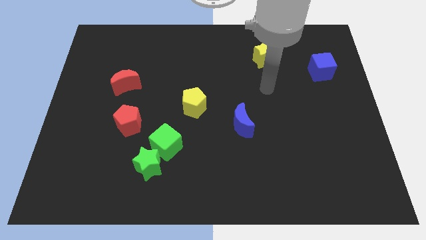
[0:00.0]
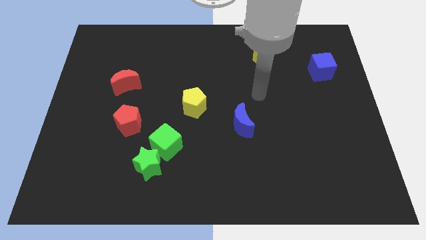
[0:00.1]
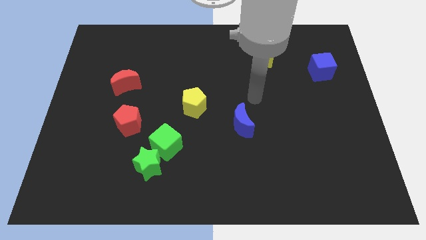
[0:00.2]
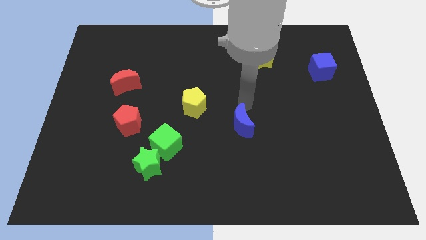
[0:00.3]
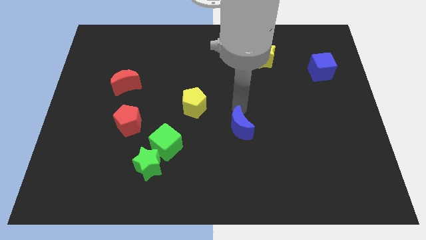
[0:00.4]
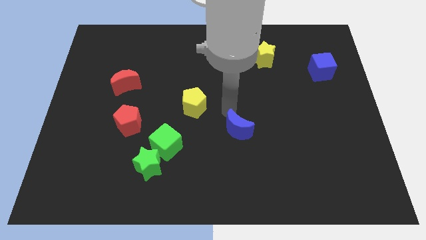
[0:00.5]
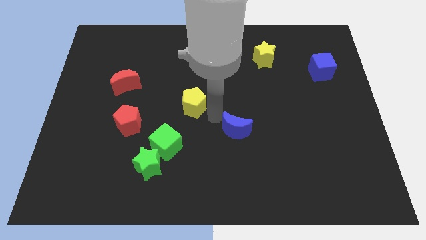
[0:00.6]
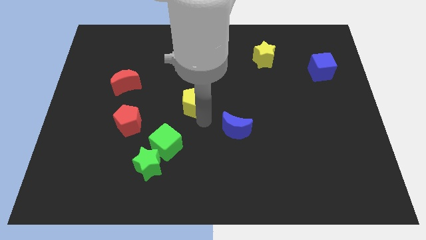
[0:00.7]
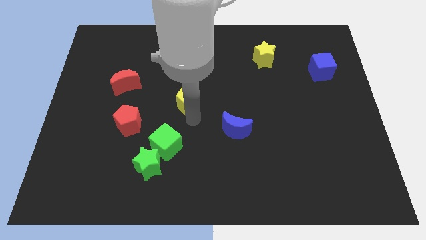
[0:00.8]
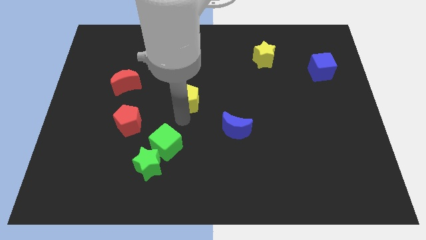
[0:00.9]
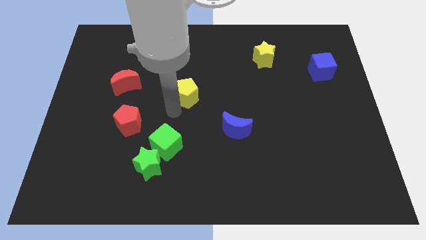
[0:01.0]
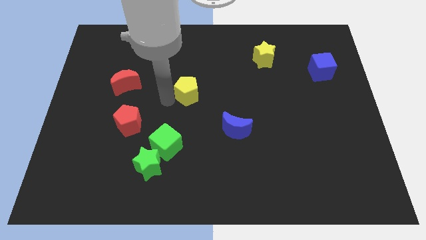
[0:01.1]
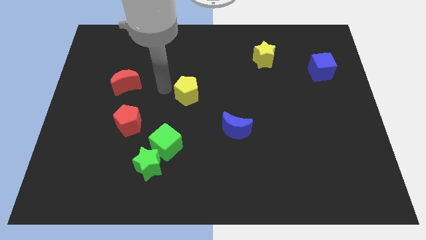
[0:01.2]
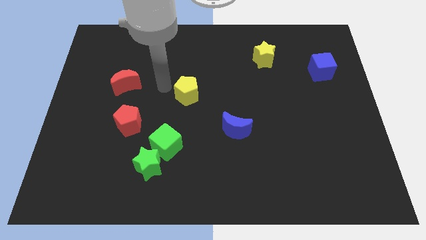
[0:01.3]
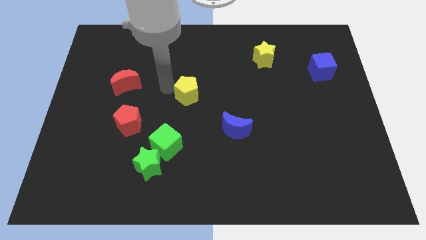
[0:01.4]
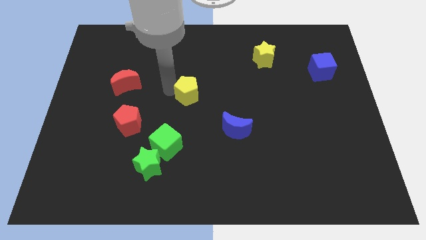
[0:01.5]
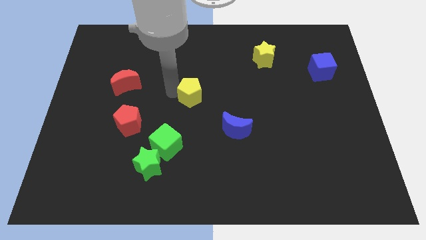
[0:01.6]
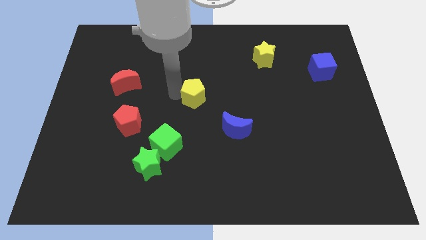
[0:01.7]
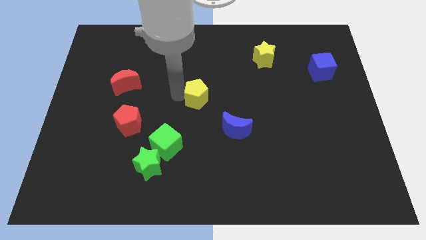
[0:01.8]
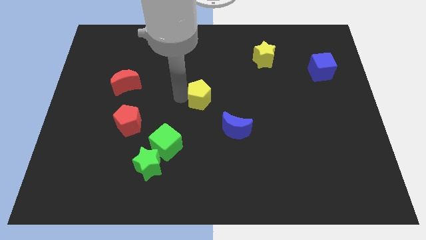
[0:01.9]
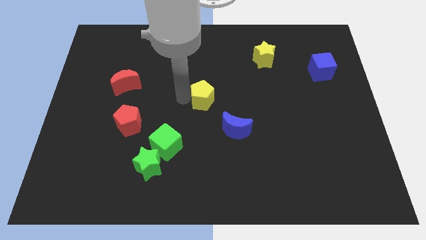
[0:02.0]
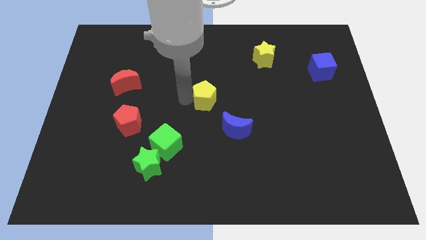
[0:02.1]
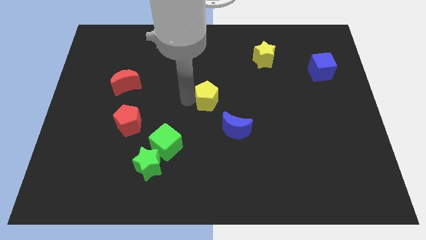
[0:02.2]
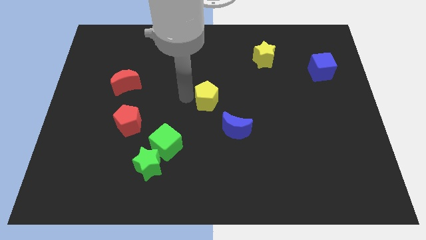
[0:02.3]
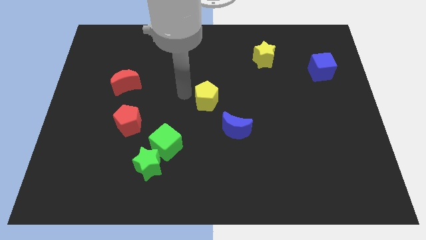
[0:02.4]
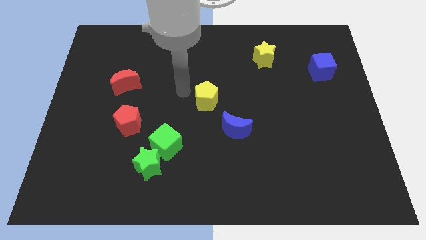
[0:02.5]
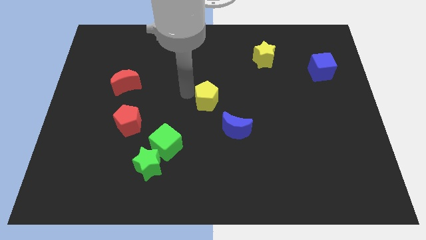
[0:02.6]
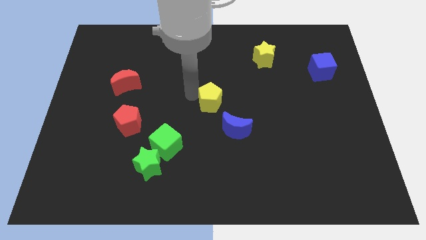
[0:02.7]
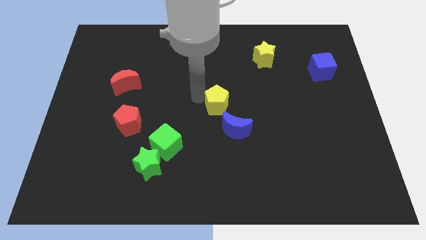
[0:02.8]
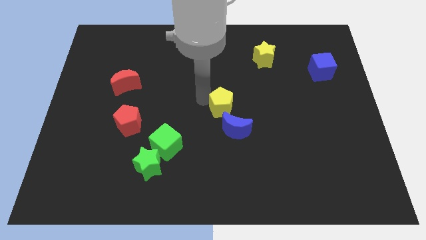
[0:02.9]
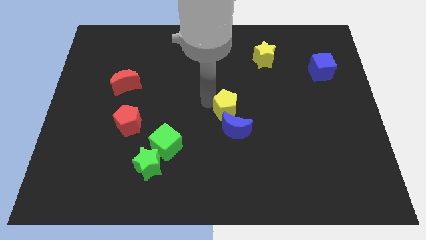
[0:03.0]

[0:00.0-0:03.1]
slide the yellow pentagon slightly right

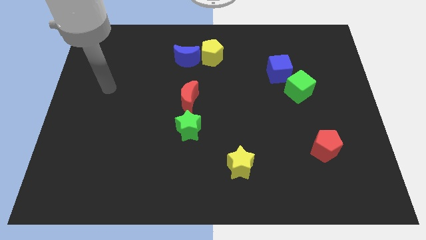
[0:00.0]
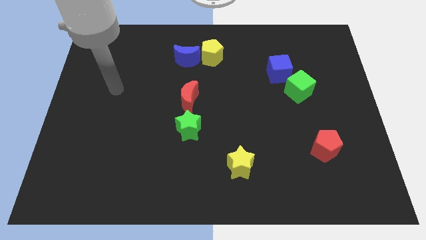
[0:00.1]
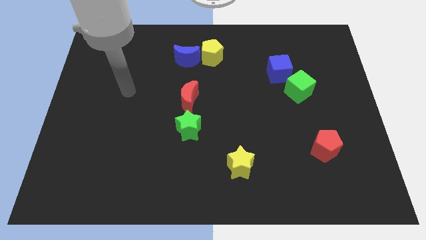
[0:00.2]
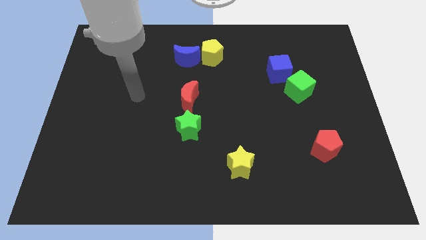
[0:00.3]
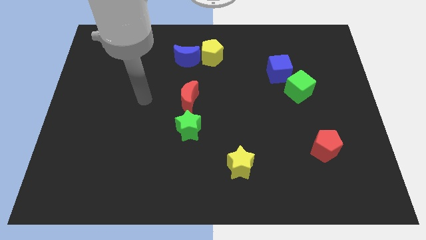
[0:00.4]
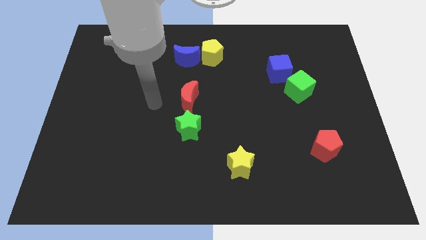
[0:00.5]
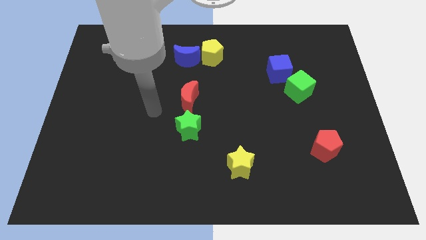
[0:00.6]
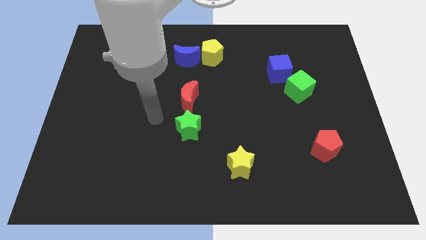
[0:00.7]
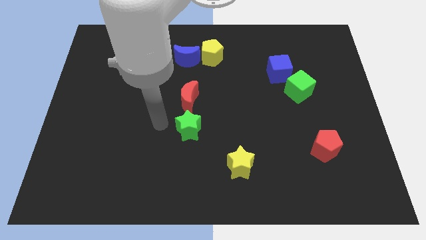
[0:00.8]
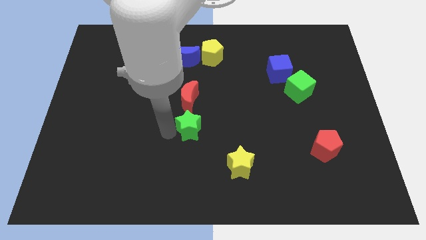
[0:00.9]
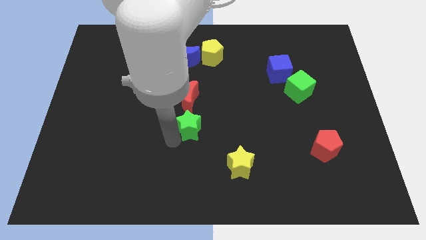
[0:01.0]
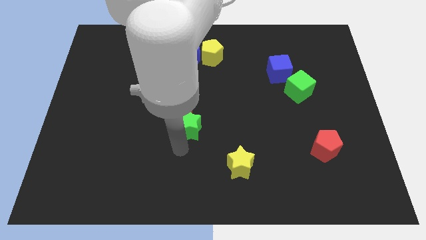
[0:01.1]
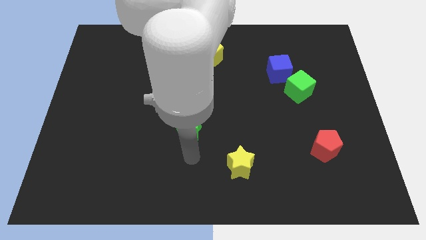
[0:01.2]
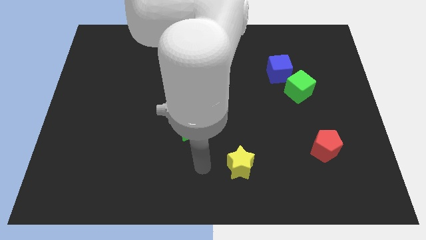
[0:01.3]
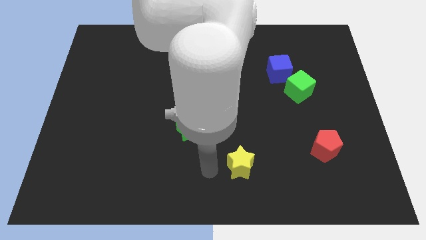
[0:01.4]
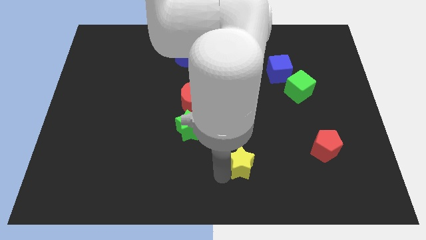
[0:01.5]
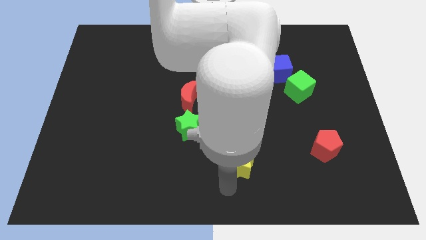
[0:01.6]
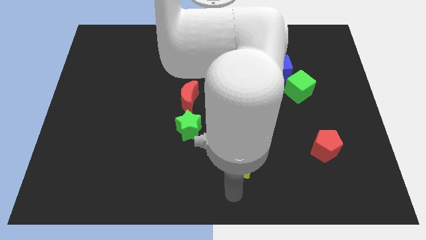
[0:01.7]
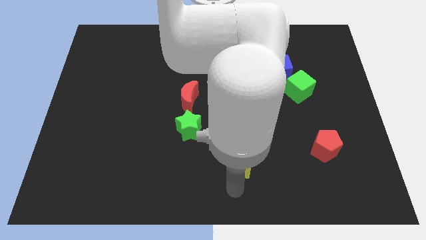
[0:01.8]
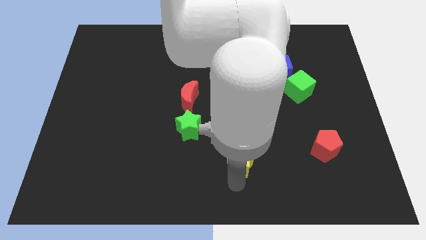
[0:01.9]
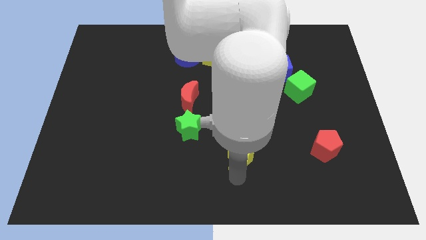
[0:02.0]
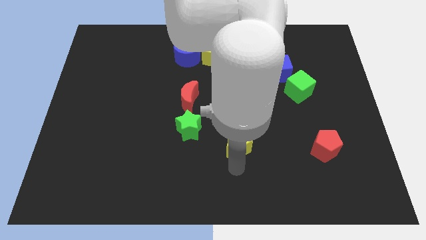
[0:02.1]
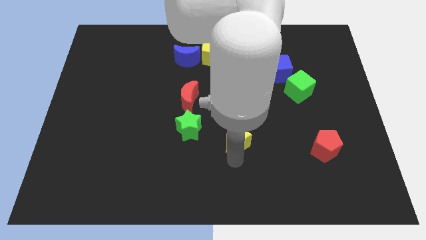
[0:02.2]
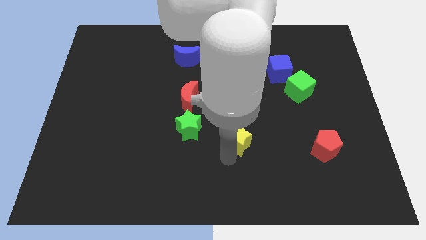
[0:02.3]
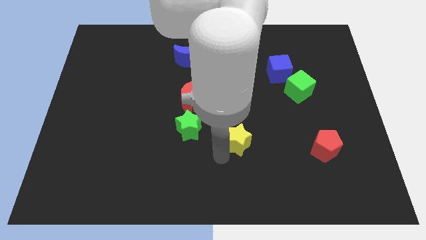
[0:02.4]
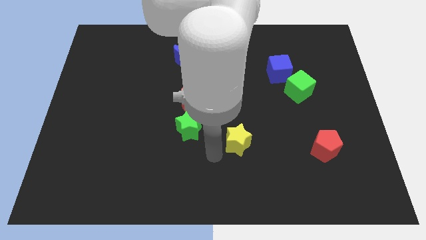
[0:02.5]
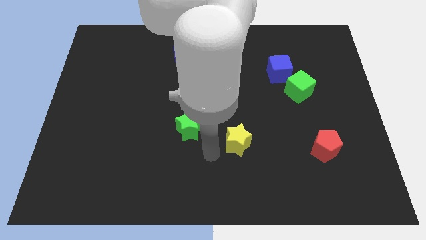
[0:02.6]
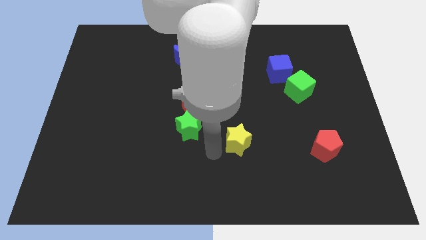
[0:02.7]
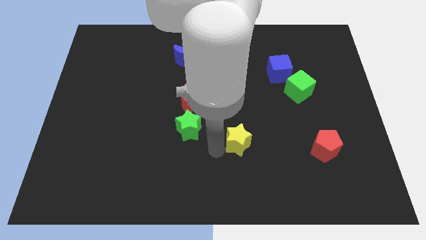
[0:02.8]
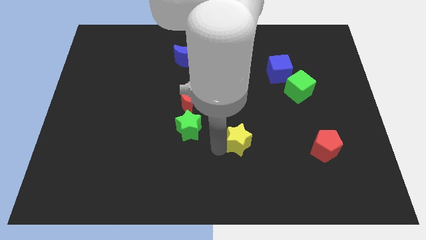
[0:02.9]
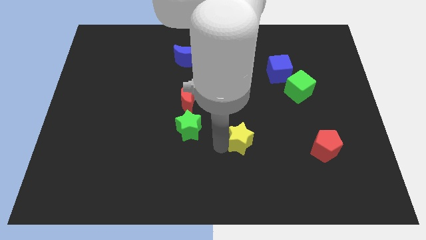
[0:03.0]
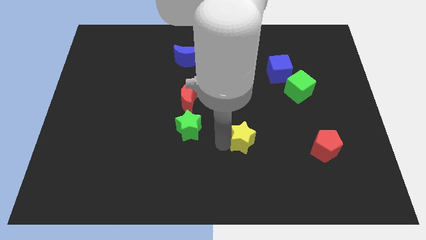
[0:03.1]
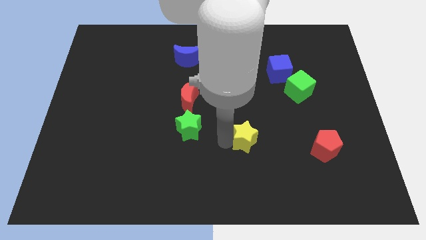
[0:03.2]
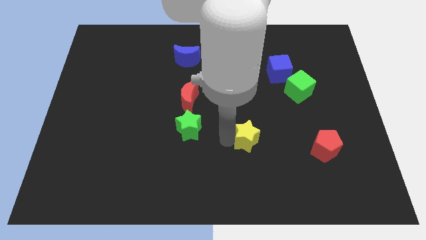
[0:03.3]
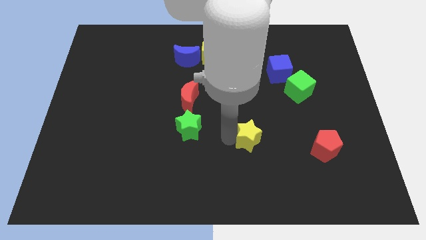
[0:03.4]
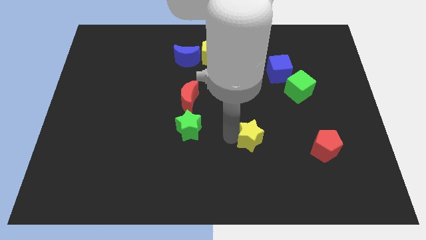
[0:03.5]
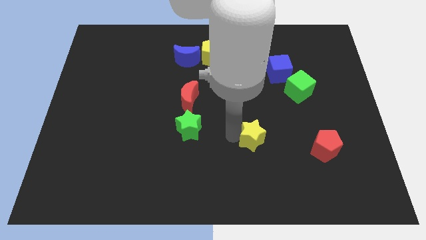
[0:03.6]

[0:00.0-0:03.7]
slightly slide the yellow star diagonally upwards and to the right

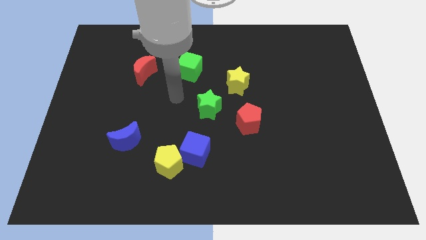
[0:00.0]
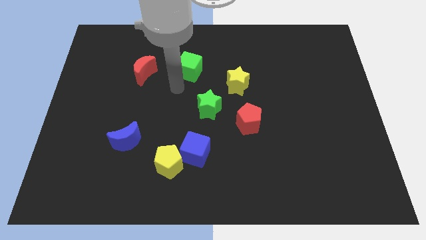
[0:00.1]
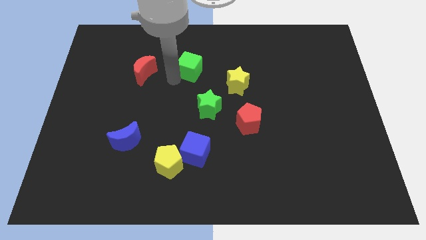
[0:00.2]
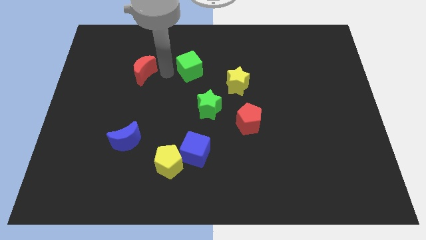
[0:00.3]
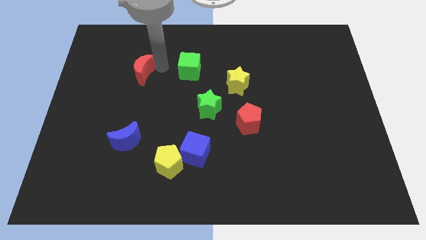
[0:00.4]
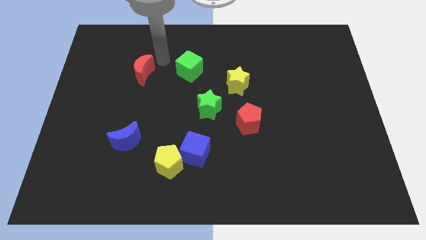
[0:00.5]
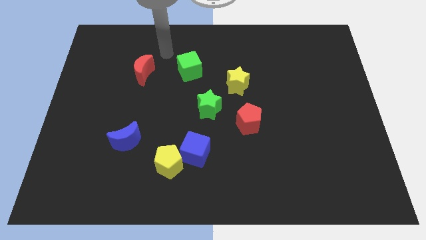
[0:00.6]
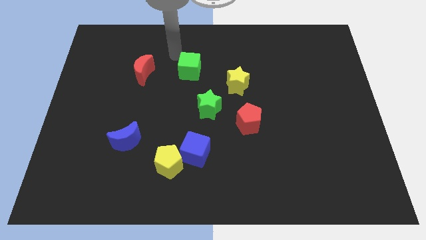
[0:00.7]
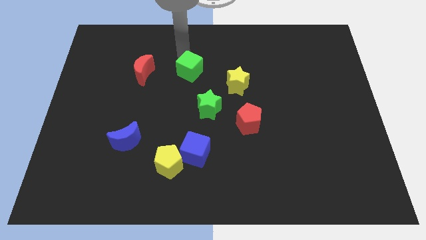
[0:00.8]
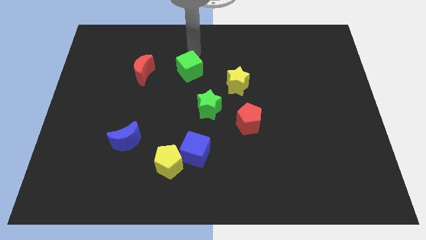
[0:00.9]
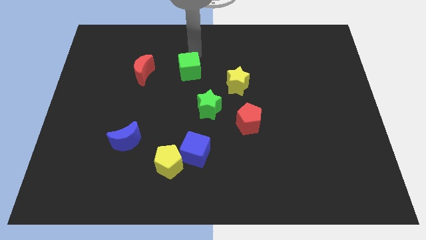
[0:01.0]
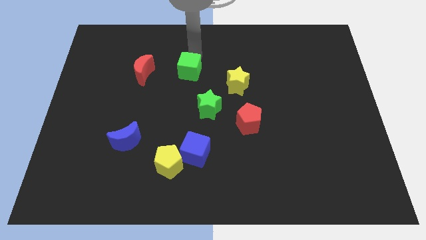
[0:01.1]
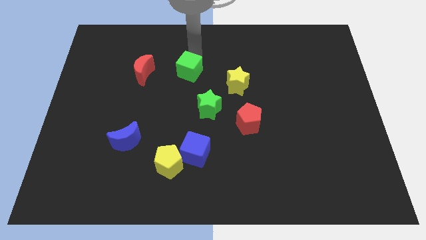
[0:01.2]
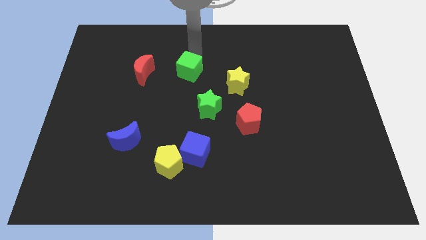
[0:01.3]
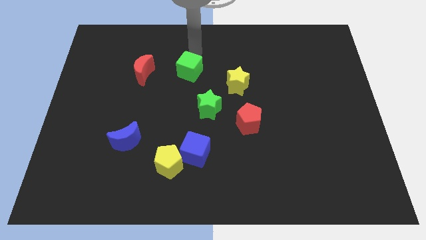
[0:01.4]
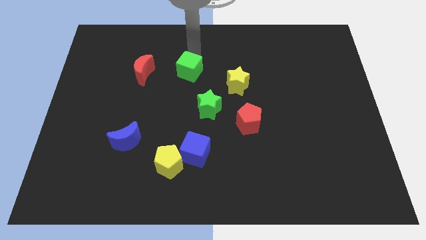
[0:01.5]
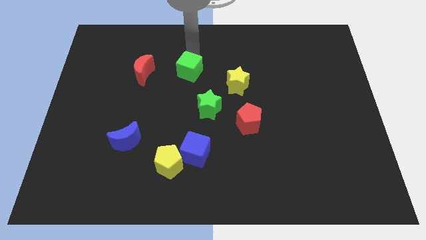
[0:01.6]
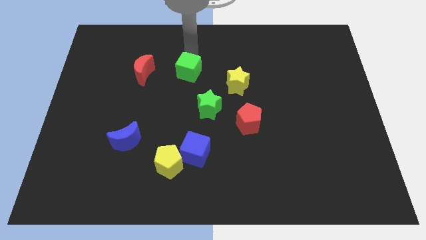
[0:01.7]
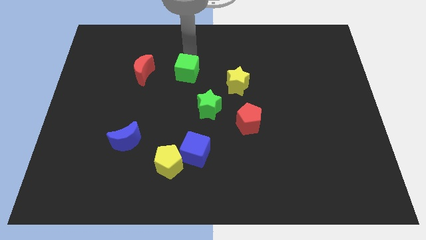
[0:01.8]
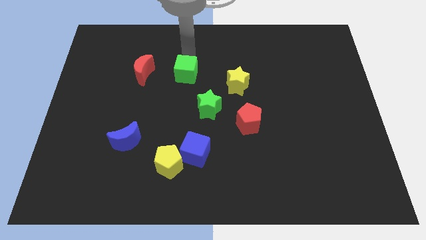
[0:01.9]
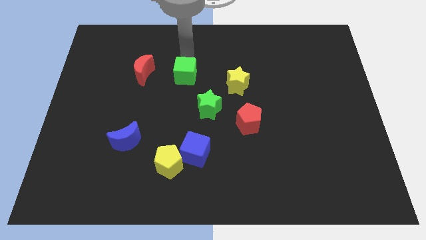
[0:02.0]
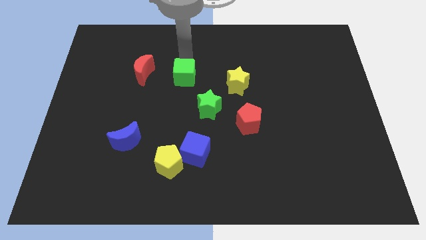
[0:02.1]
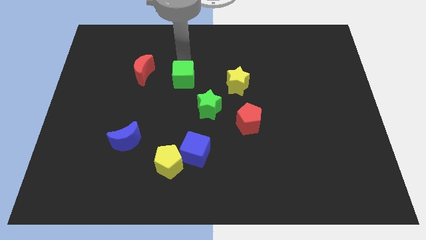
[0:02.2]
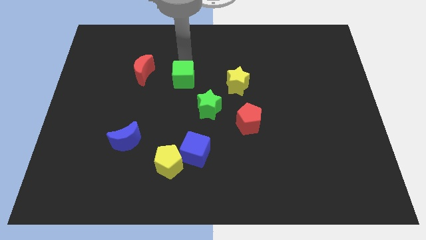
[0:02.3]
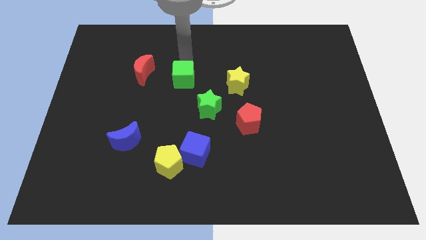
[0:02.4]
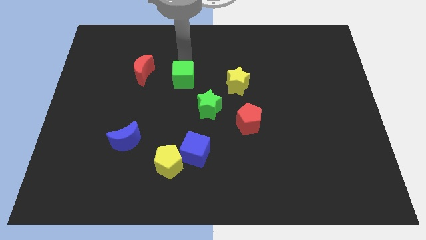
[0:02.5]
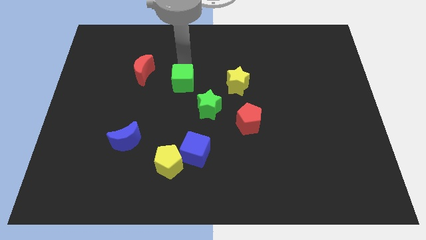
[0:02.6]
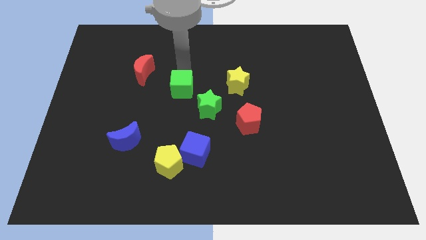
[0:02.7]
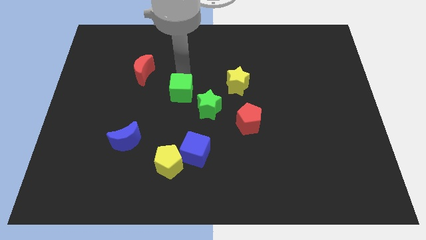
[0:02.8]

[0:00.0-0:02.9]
slide the green cube a bit down
